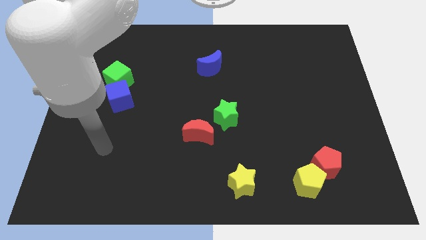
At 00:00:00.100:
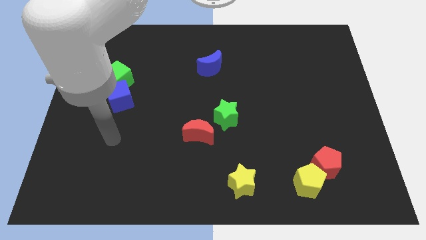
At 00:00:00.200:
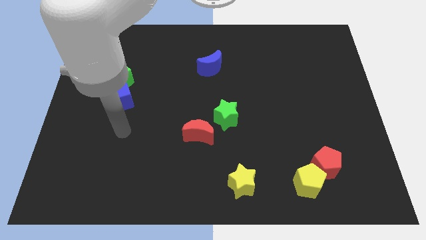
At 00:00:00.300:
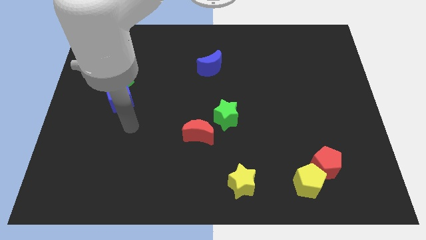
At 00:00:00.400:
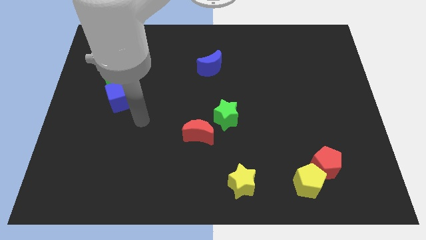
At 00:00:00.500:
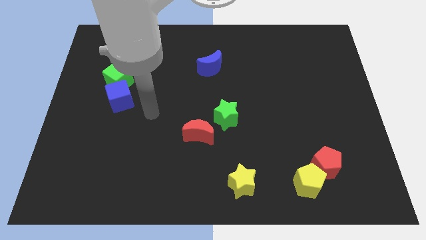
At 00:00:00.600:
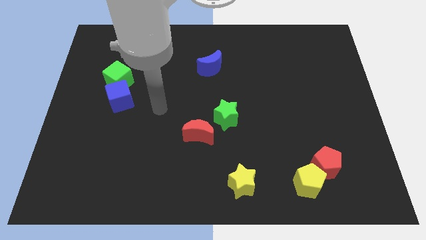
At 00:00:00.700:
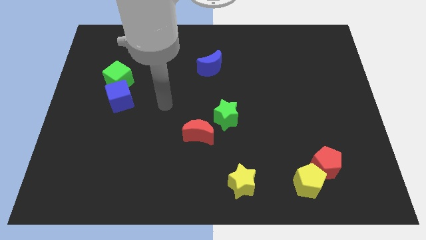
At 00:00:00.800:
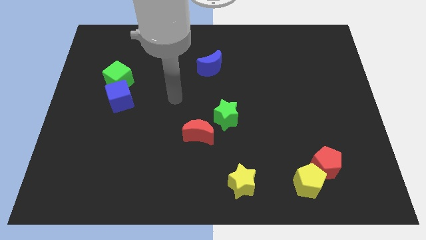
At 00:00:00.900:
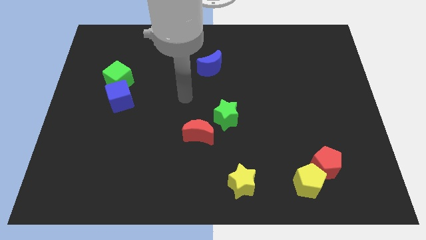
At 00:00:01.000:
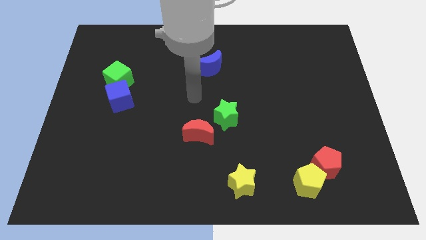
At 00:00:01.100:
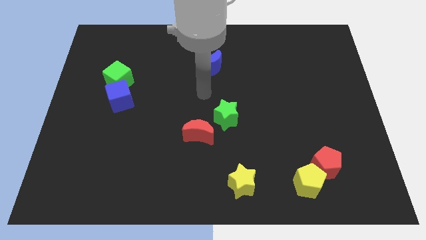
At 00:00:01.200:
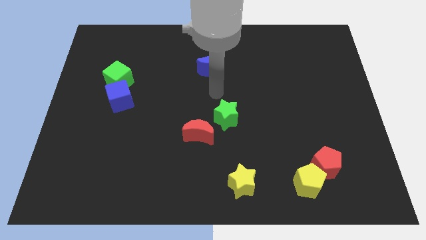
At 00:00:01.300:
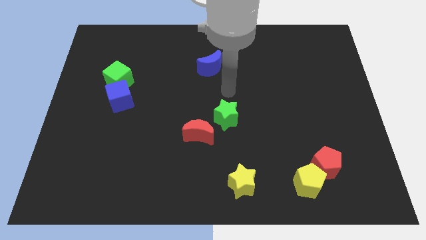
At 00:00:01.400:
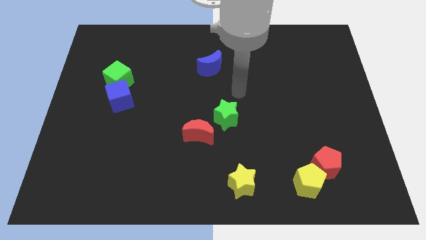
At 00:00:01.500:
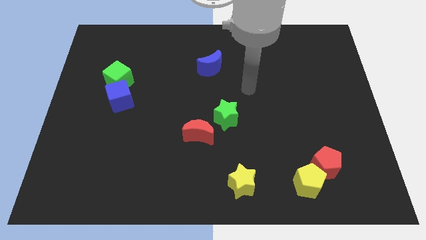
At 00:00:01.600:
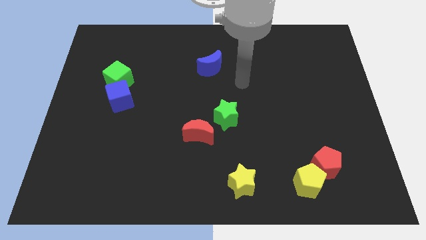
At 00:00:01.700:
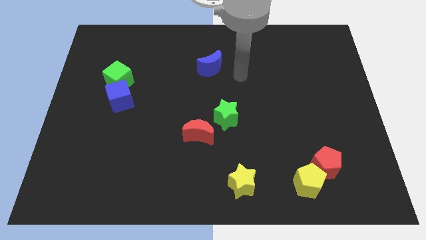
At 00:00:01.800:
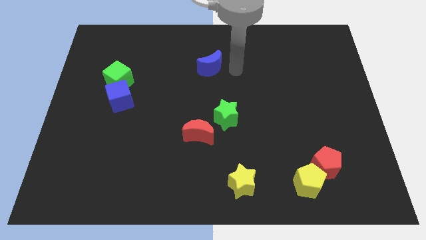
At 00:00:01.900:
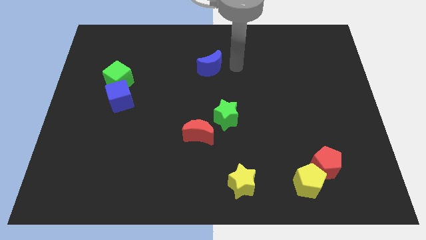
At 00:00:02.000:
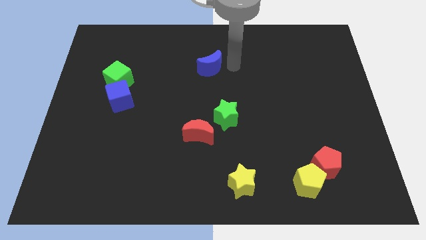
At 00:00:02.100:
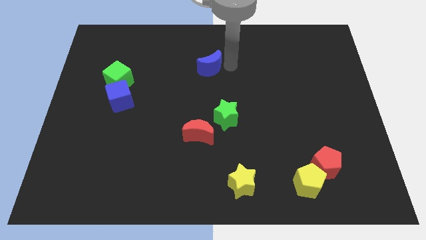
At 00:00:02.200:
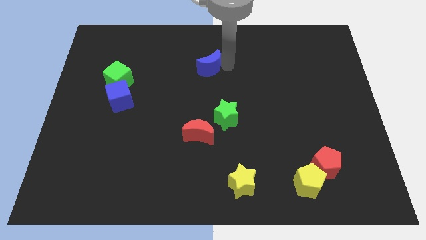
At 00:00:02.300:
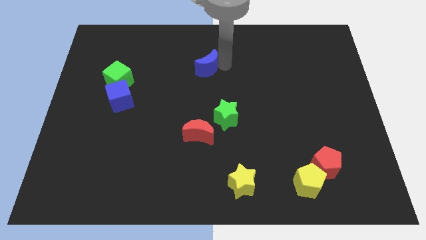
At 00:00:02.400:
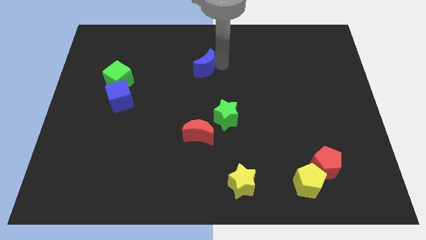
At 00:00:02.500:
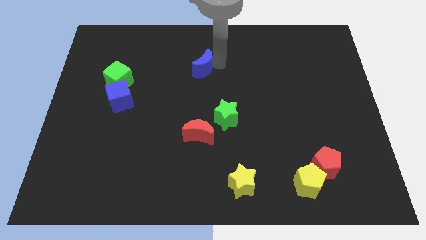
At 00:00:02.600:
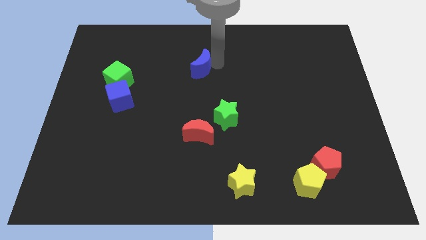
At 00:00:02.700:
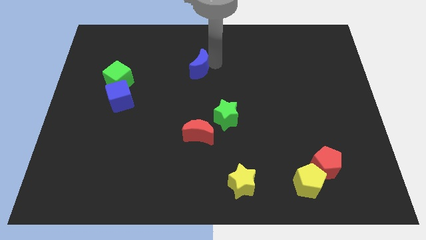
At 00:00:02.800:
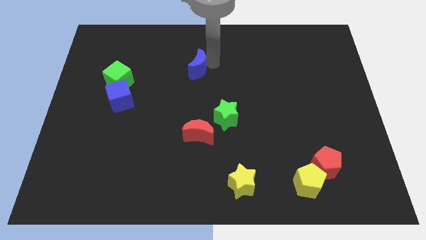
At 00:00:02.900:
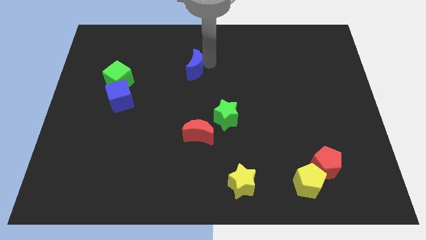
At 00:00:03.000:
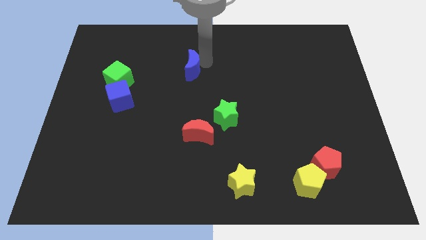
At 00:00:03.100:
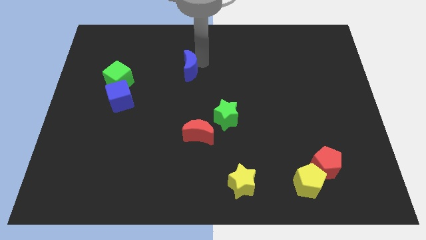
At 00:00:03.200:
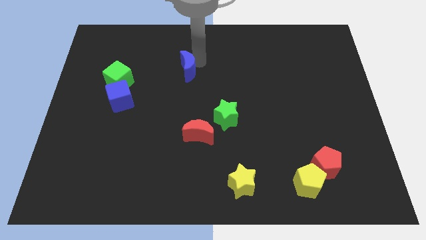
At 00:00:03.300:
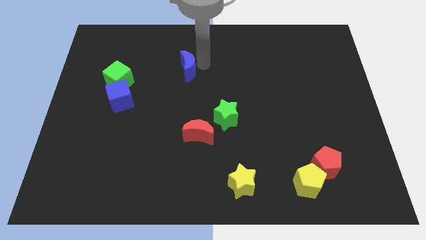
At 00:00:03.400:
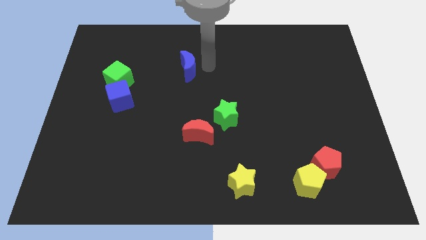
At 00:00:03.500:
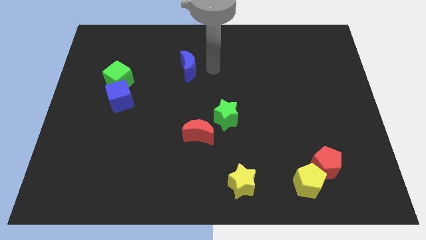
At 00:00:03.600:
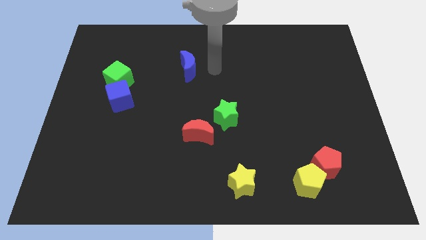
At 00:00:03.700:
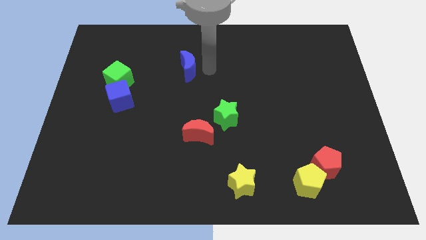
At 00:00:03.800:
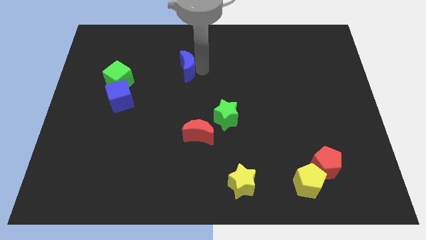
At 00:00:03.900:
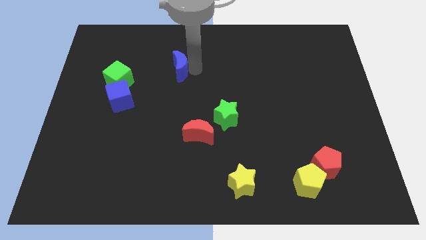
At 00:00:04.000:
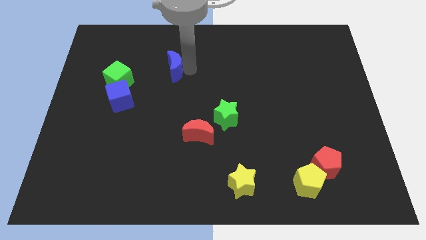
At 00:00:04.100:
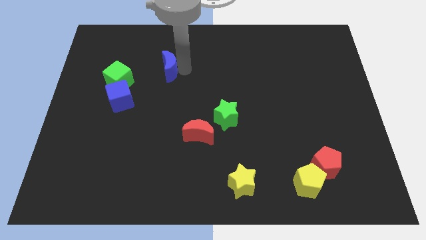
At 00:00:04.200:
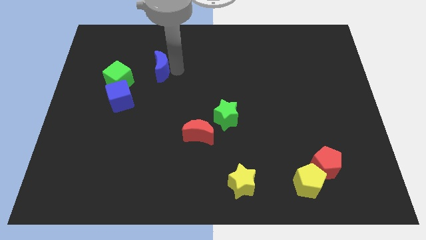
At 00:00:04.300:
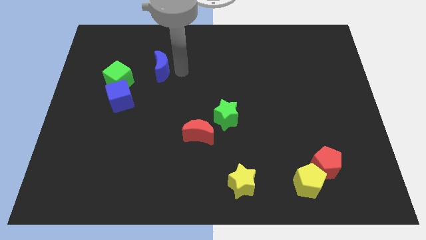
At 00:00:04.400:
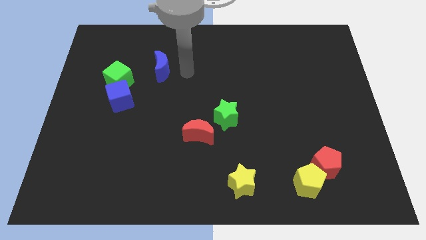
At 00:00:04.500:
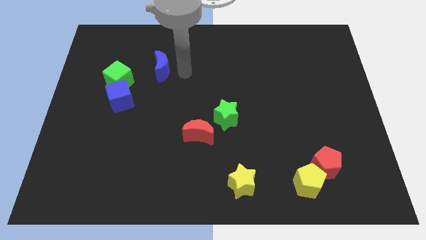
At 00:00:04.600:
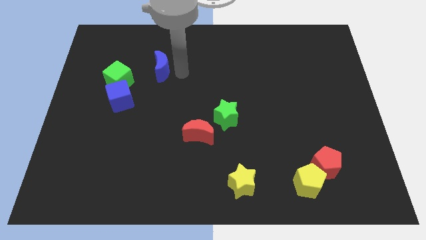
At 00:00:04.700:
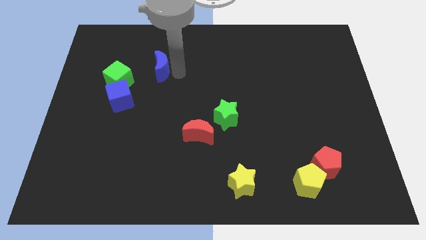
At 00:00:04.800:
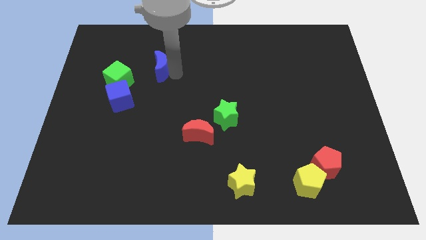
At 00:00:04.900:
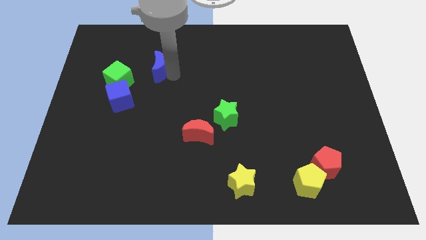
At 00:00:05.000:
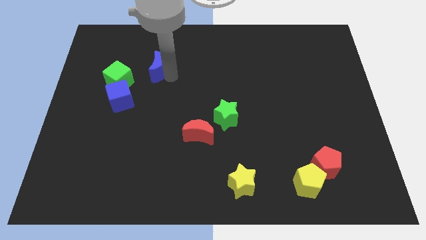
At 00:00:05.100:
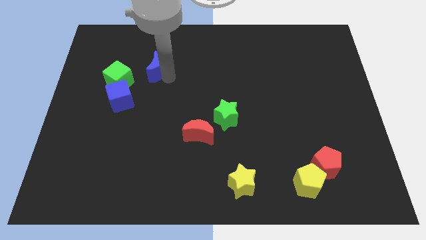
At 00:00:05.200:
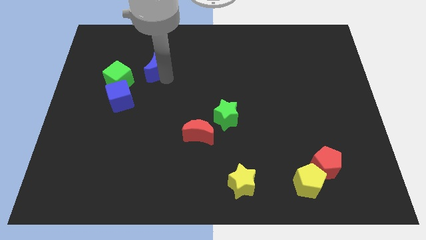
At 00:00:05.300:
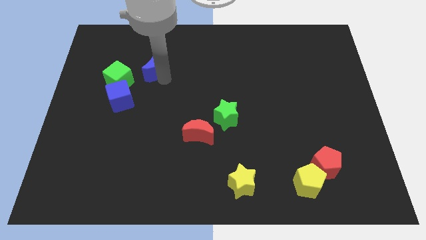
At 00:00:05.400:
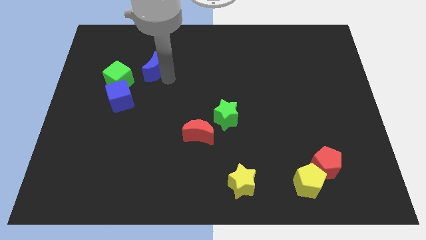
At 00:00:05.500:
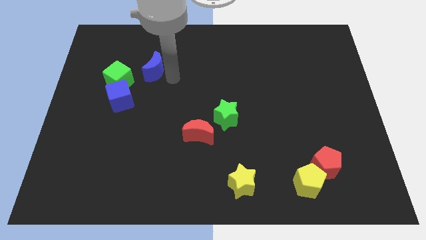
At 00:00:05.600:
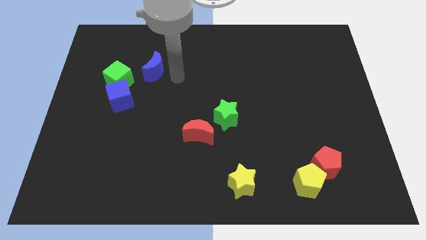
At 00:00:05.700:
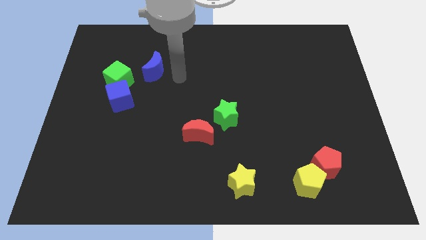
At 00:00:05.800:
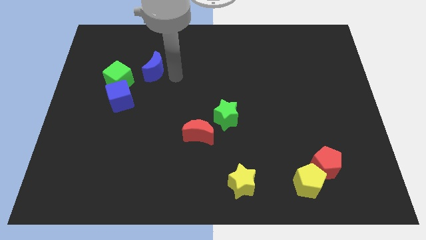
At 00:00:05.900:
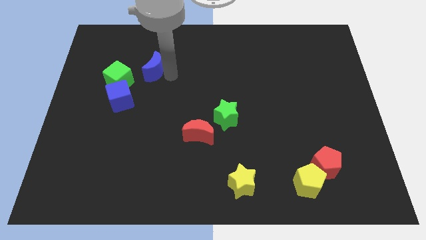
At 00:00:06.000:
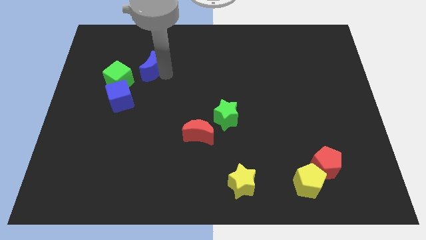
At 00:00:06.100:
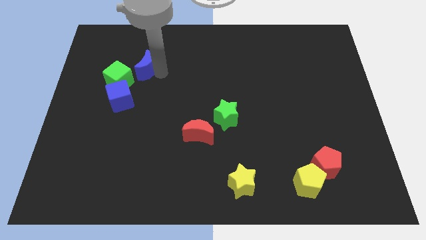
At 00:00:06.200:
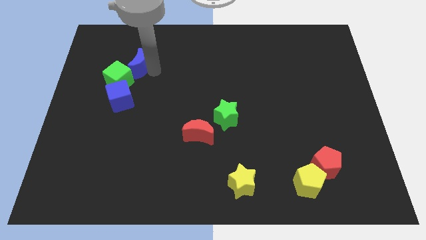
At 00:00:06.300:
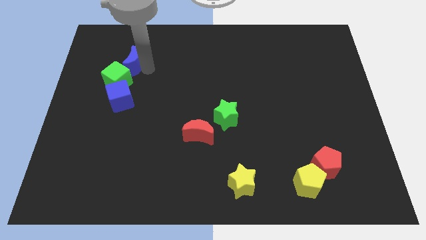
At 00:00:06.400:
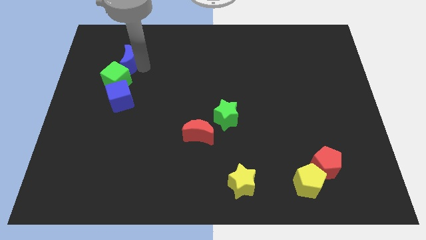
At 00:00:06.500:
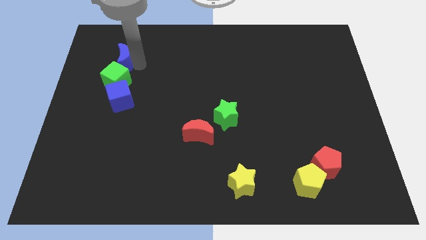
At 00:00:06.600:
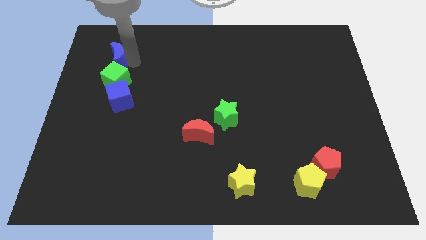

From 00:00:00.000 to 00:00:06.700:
push the blue moon to the top left of the green cube
